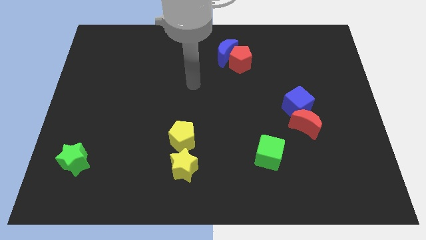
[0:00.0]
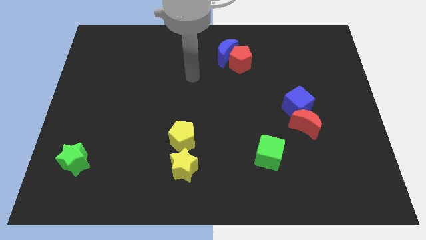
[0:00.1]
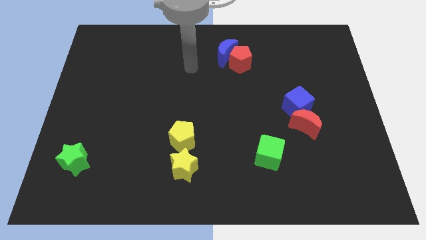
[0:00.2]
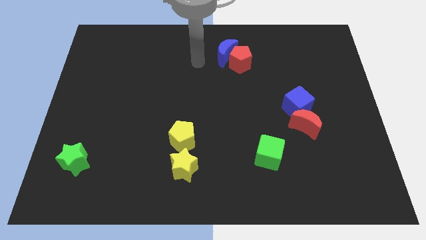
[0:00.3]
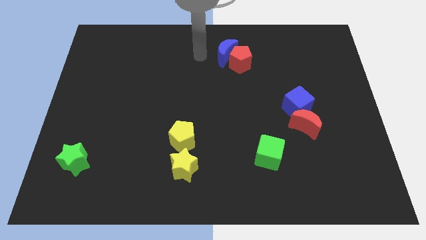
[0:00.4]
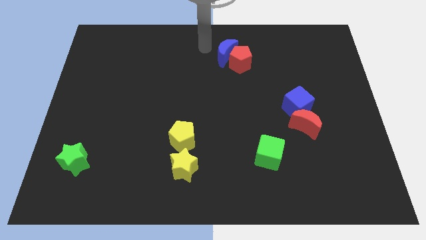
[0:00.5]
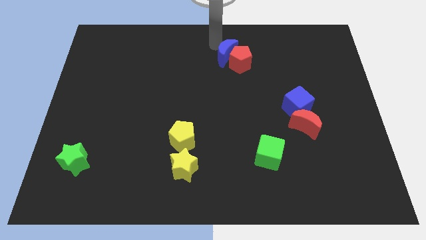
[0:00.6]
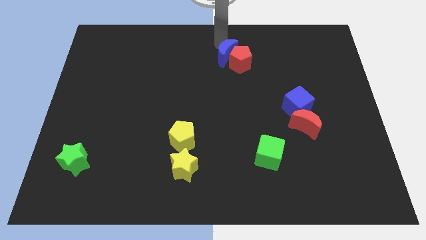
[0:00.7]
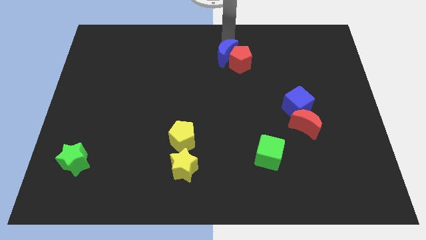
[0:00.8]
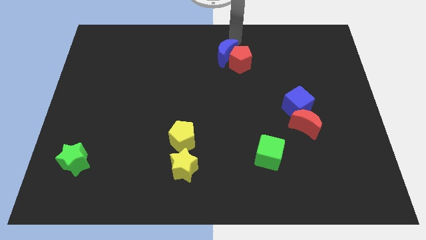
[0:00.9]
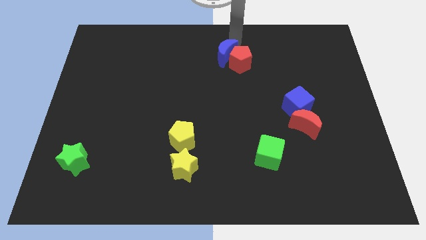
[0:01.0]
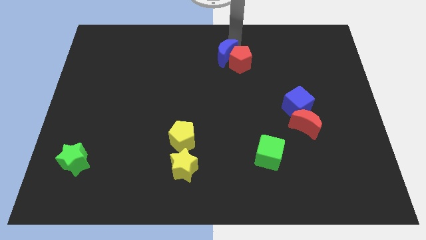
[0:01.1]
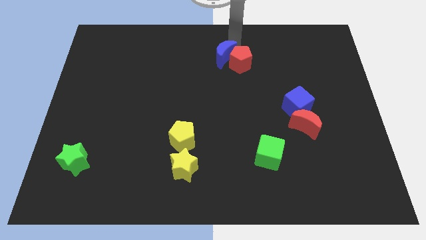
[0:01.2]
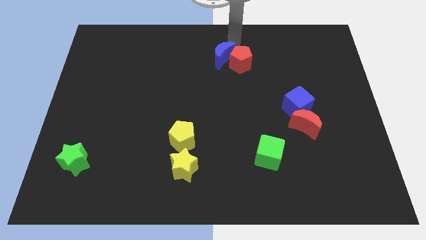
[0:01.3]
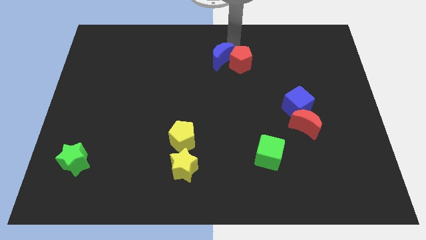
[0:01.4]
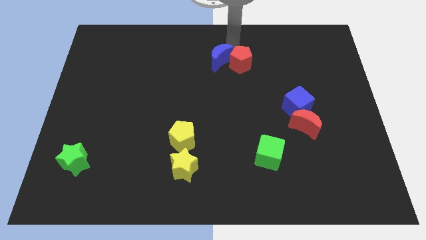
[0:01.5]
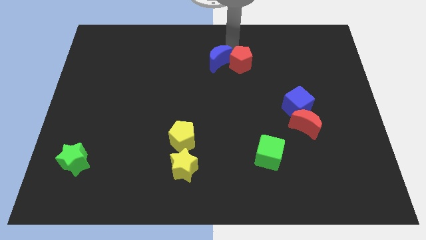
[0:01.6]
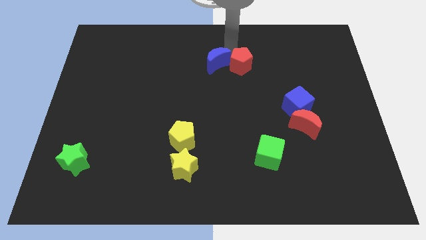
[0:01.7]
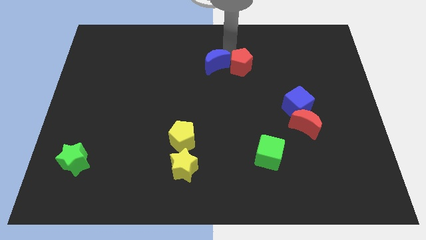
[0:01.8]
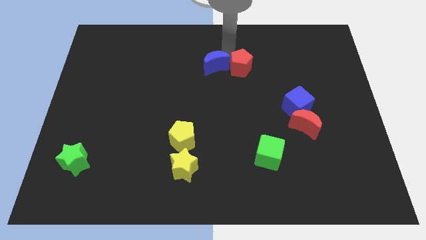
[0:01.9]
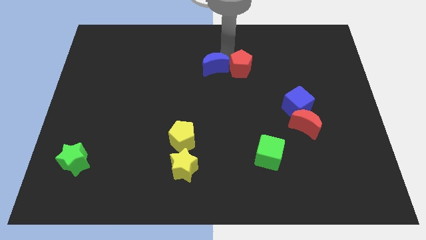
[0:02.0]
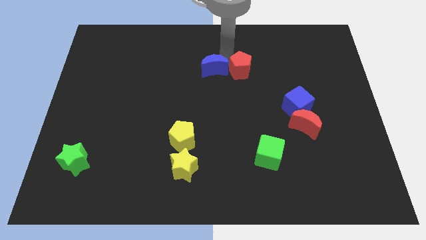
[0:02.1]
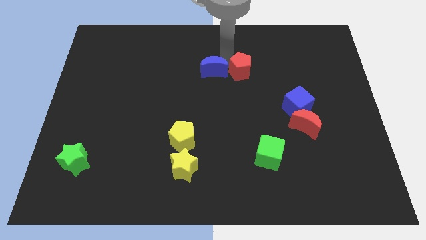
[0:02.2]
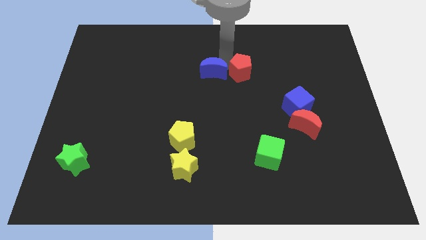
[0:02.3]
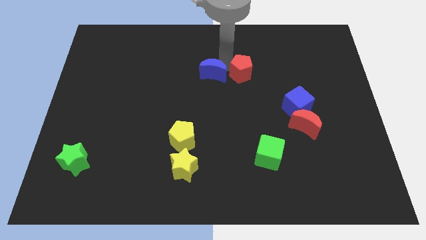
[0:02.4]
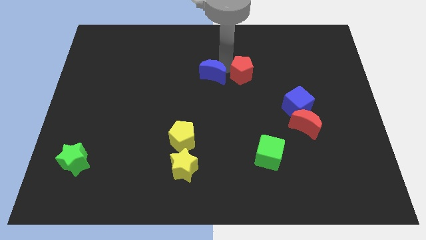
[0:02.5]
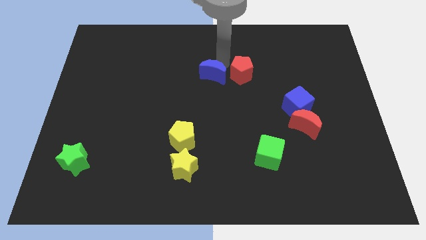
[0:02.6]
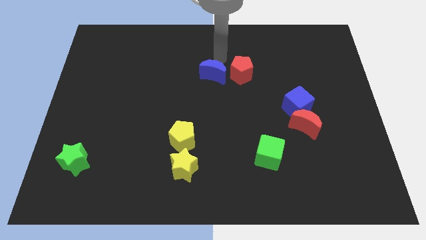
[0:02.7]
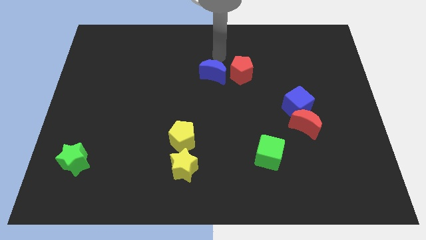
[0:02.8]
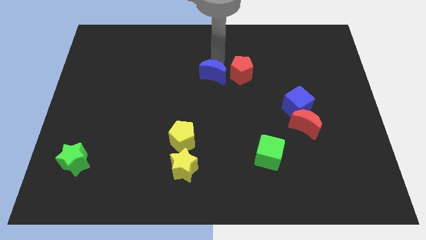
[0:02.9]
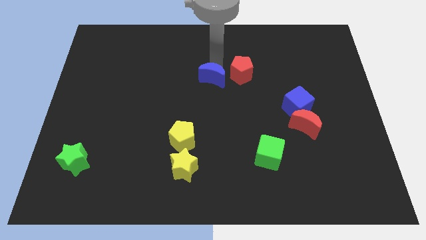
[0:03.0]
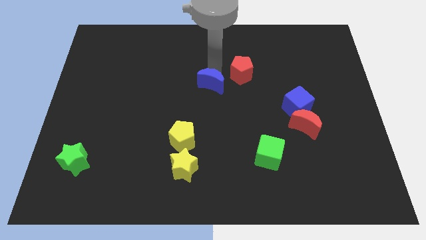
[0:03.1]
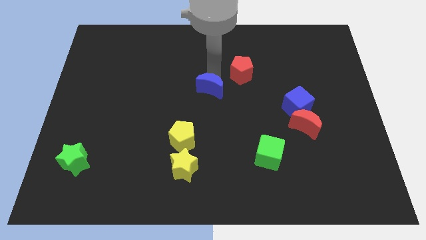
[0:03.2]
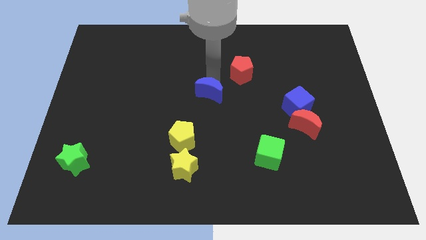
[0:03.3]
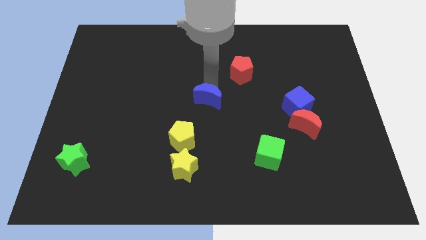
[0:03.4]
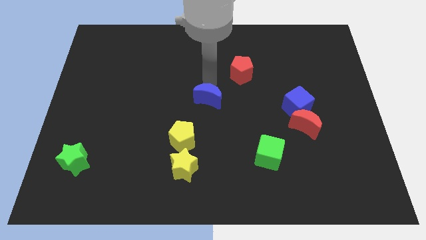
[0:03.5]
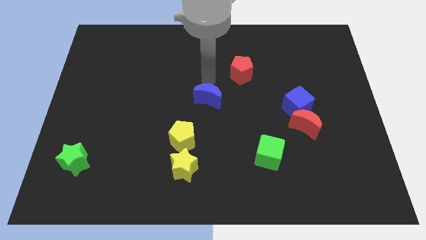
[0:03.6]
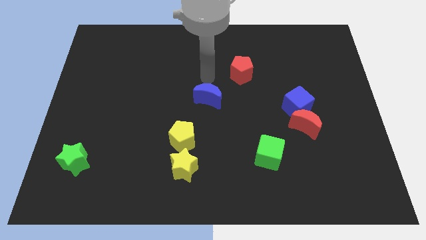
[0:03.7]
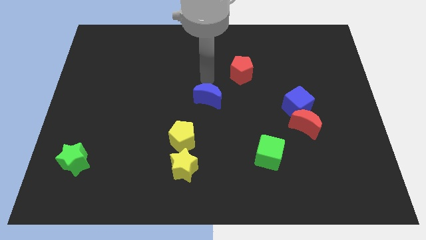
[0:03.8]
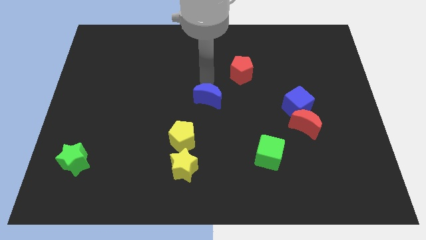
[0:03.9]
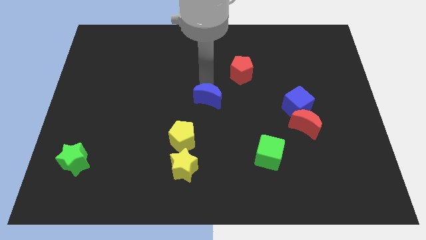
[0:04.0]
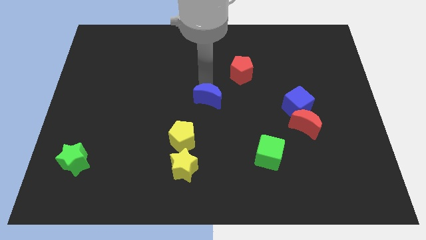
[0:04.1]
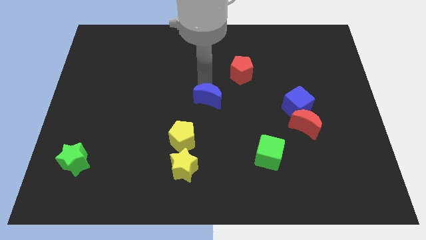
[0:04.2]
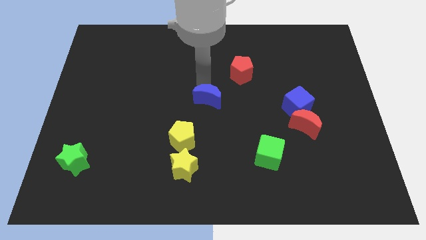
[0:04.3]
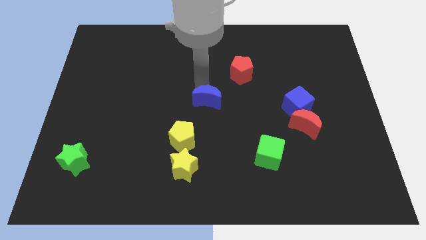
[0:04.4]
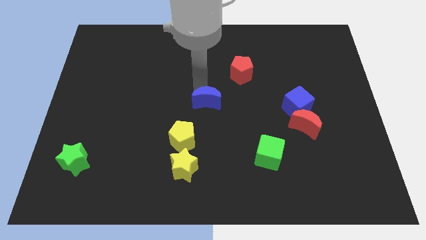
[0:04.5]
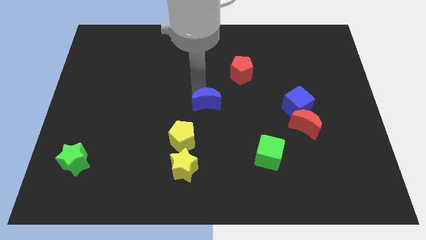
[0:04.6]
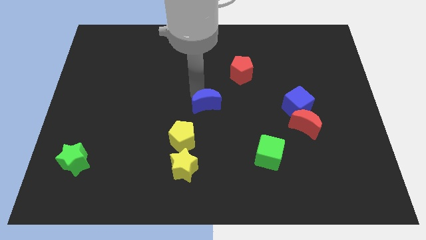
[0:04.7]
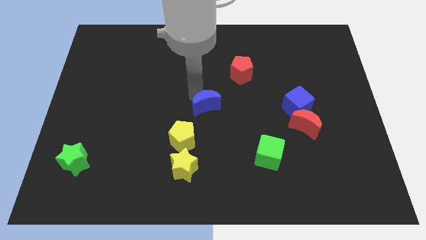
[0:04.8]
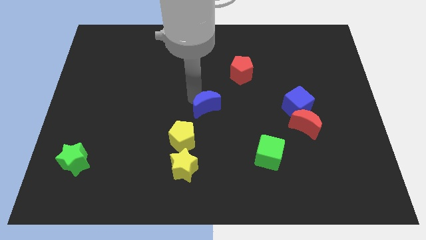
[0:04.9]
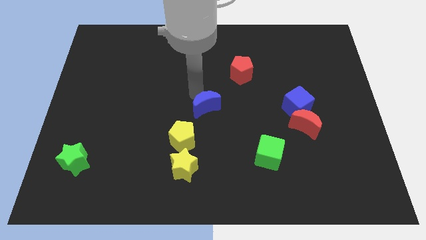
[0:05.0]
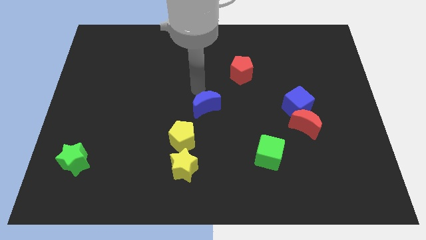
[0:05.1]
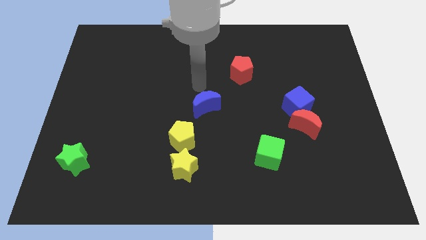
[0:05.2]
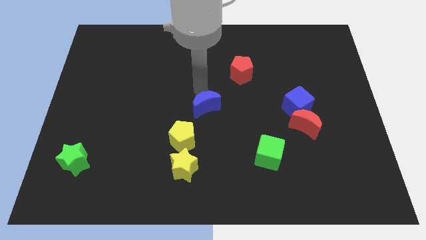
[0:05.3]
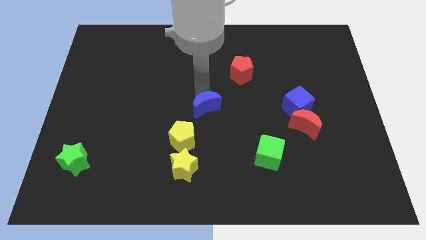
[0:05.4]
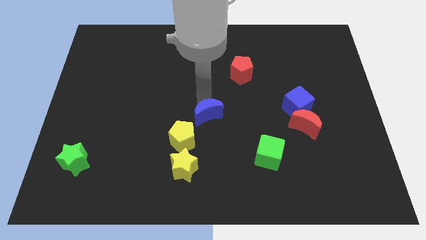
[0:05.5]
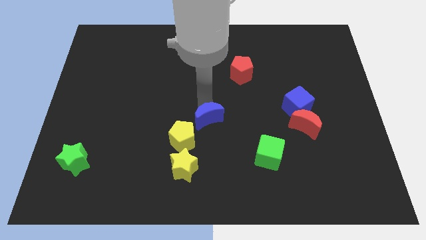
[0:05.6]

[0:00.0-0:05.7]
push the blue moon down

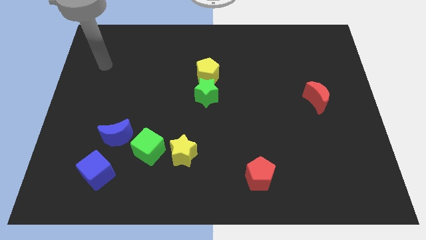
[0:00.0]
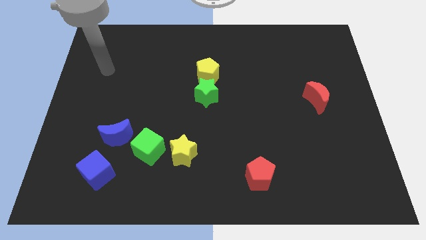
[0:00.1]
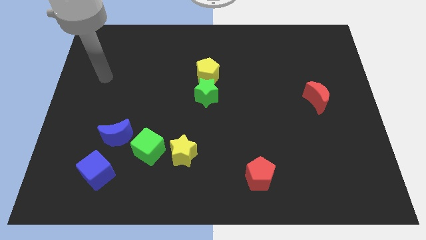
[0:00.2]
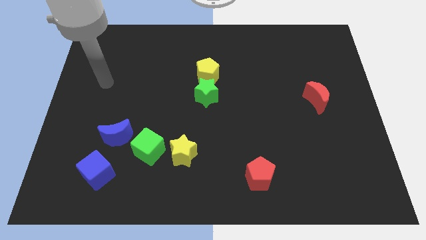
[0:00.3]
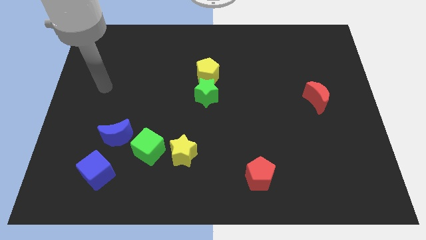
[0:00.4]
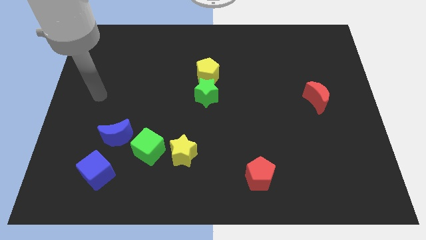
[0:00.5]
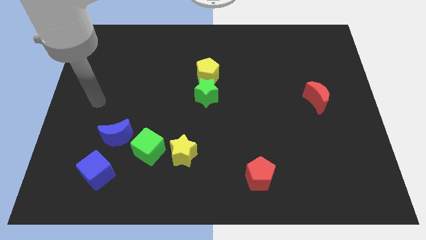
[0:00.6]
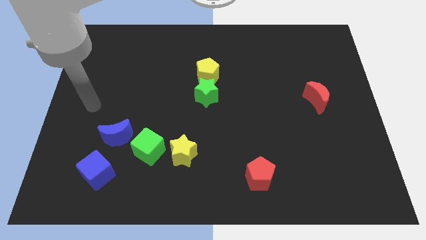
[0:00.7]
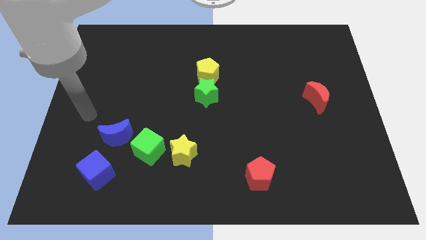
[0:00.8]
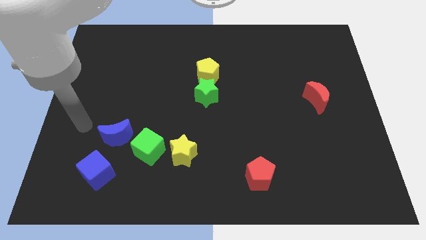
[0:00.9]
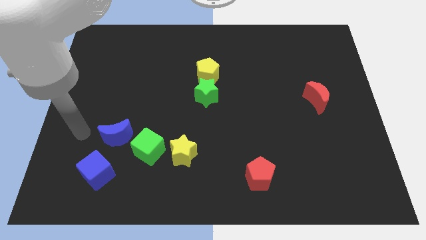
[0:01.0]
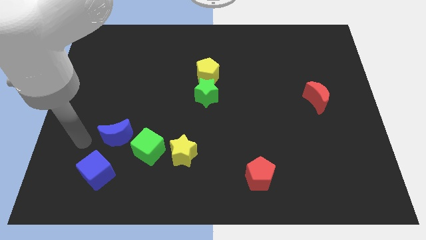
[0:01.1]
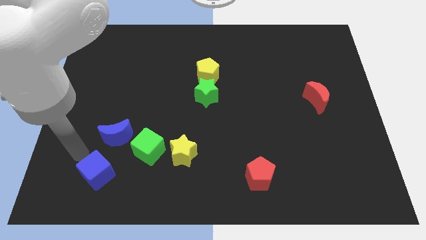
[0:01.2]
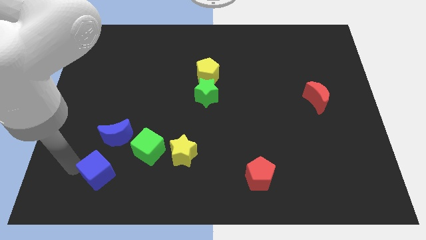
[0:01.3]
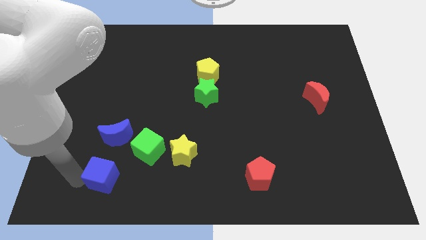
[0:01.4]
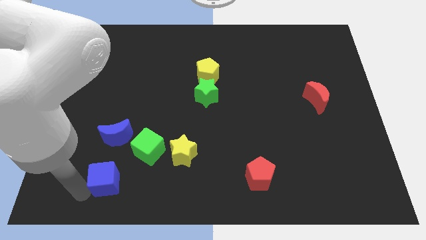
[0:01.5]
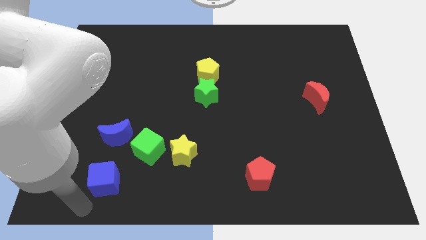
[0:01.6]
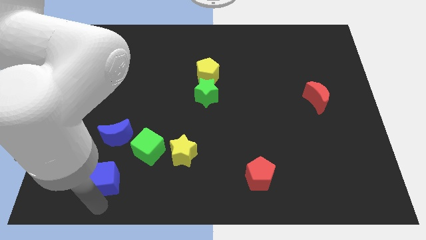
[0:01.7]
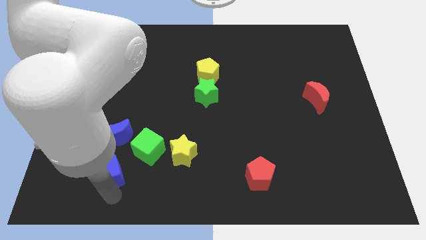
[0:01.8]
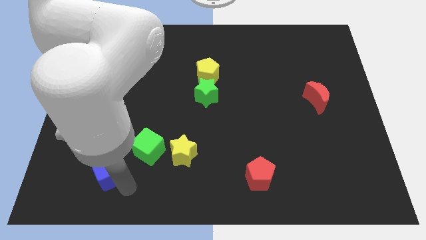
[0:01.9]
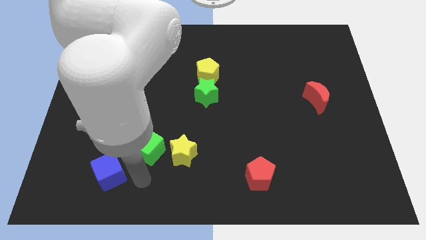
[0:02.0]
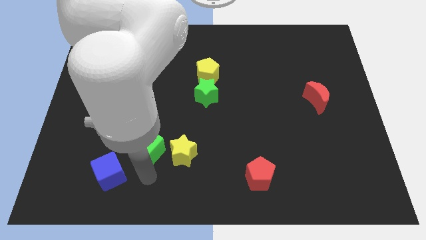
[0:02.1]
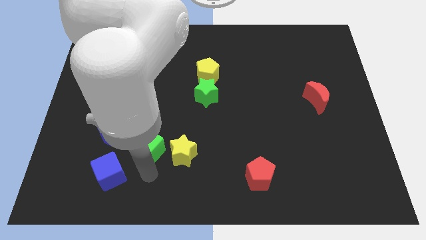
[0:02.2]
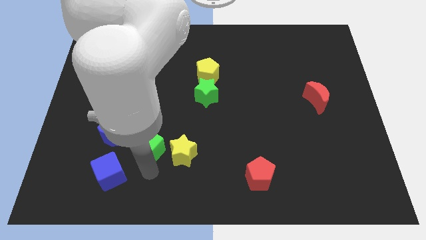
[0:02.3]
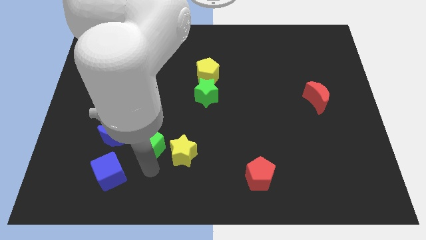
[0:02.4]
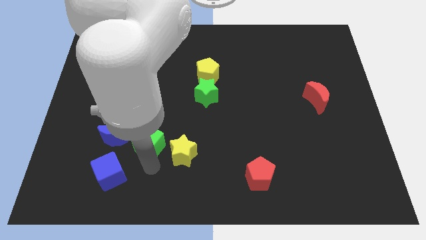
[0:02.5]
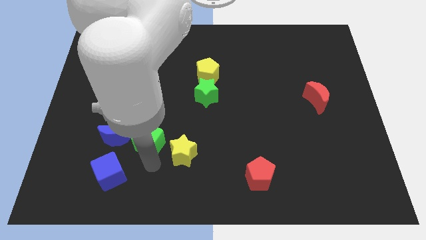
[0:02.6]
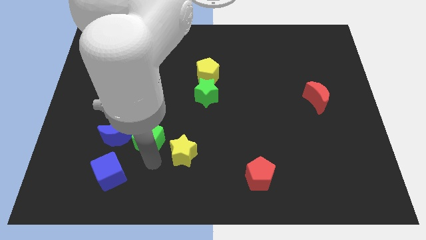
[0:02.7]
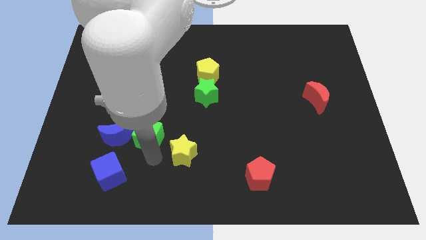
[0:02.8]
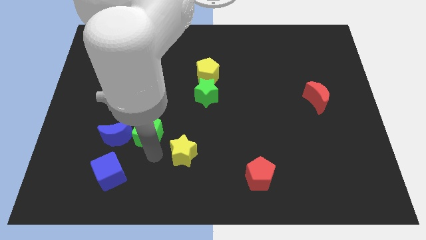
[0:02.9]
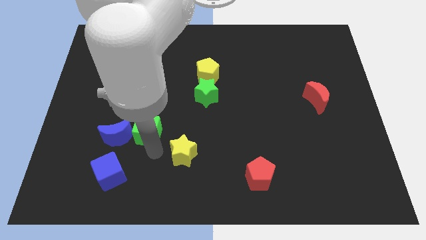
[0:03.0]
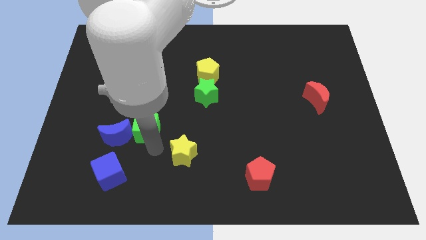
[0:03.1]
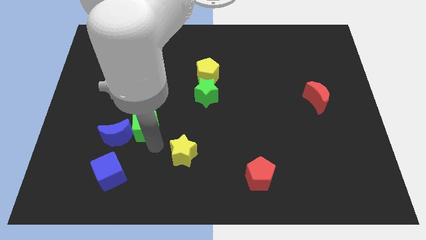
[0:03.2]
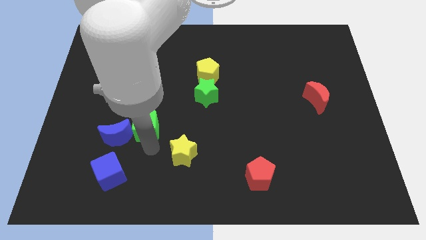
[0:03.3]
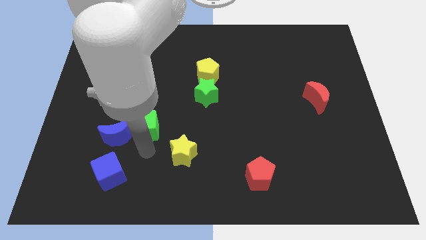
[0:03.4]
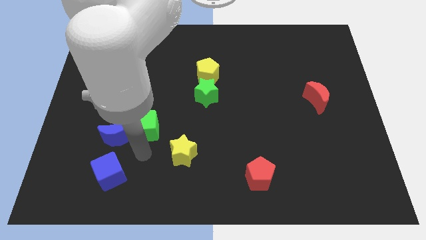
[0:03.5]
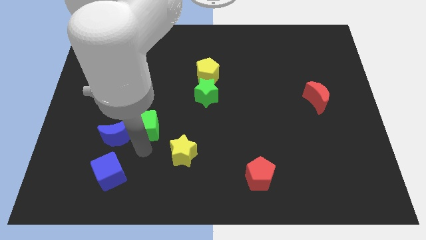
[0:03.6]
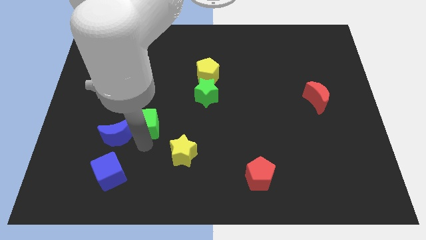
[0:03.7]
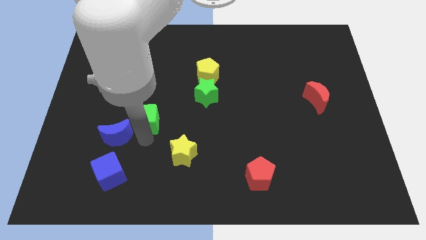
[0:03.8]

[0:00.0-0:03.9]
slide the green cube up slightly
